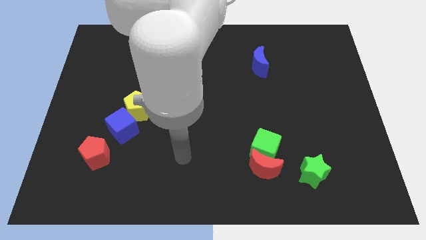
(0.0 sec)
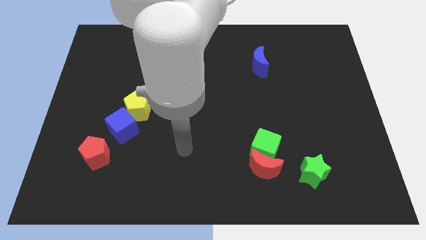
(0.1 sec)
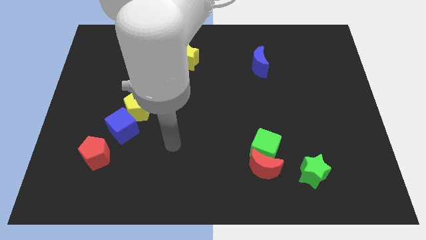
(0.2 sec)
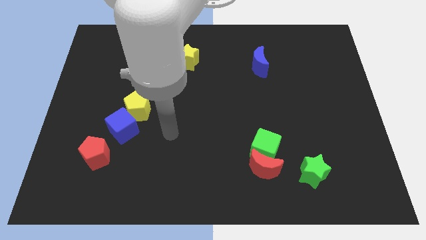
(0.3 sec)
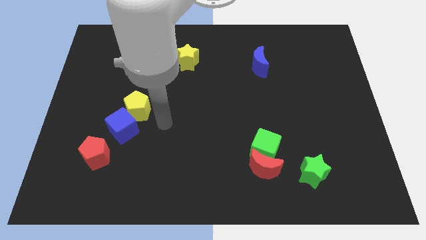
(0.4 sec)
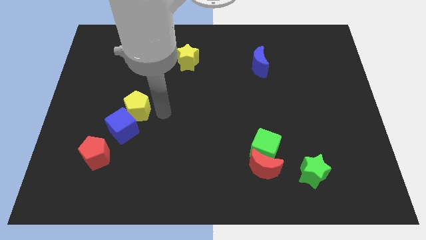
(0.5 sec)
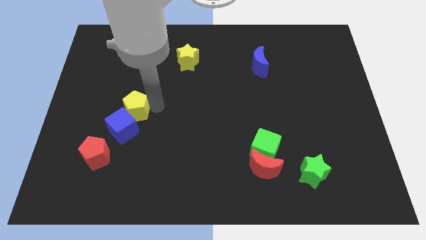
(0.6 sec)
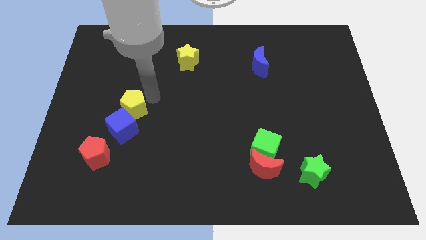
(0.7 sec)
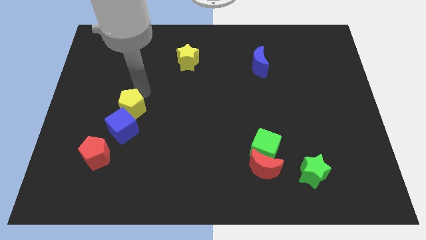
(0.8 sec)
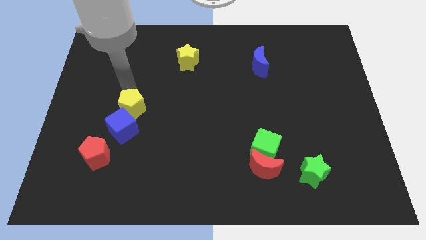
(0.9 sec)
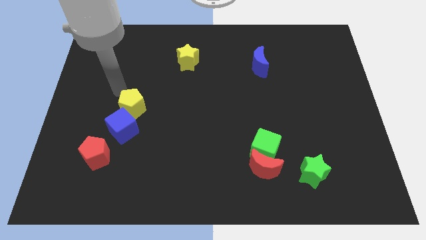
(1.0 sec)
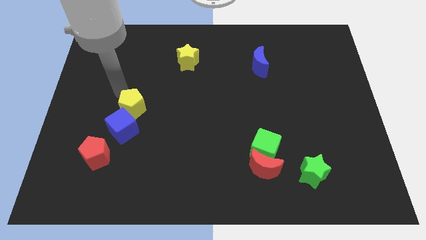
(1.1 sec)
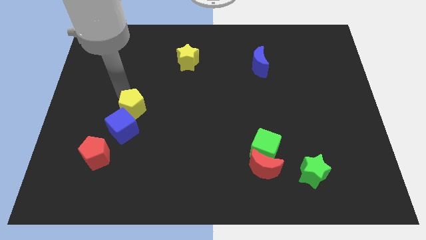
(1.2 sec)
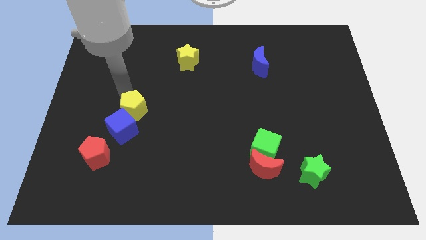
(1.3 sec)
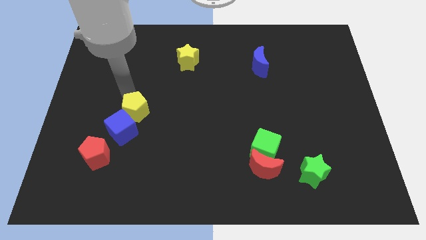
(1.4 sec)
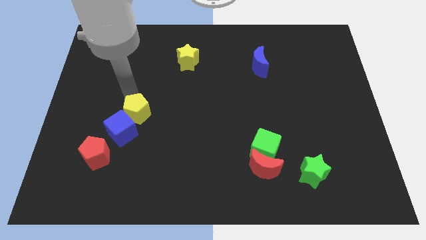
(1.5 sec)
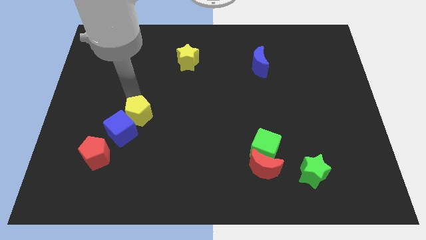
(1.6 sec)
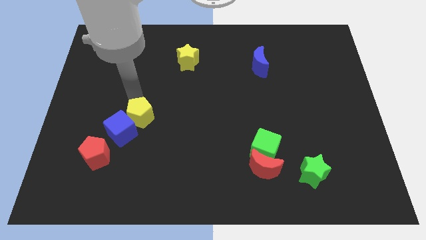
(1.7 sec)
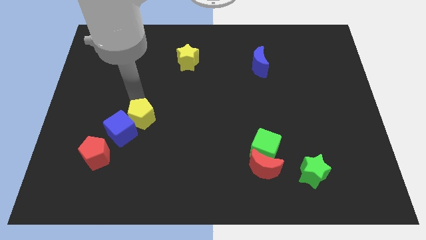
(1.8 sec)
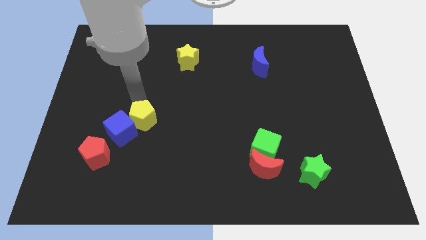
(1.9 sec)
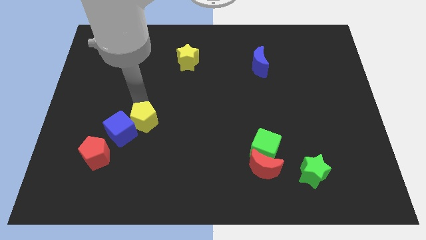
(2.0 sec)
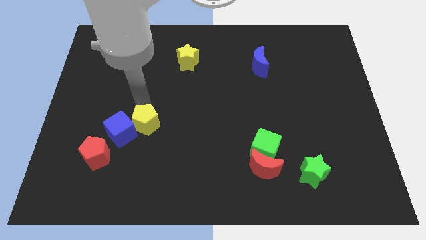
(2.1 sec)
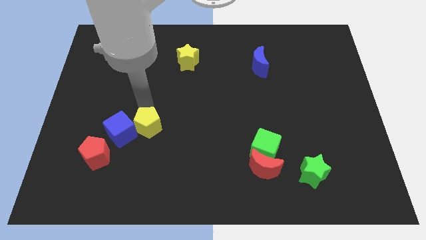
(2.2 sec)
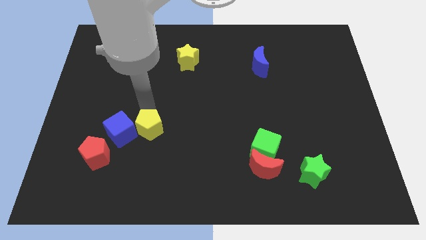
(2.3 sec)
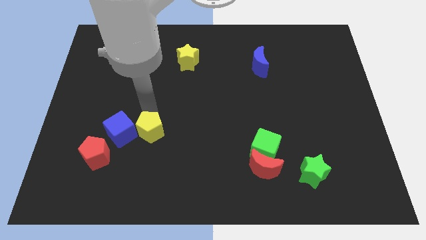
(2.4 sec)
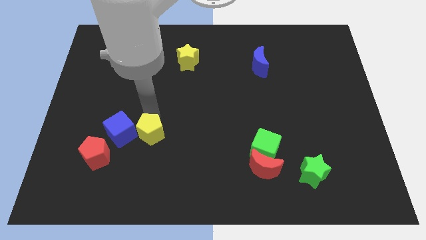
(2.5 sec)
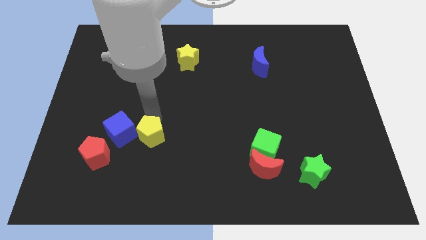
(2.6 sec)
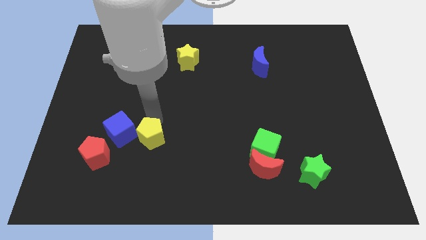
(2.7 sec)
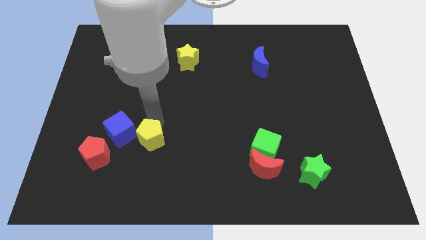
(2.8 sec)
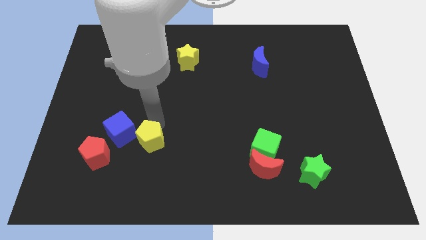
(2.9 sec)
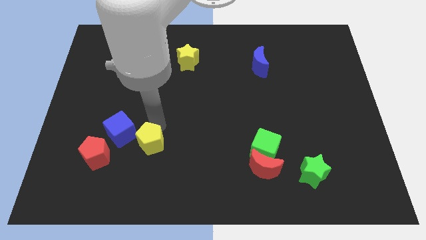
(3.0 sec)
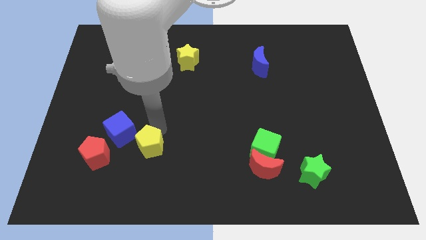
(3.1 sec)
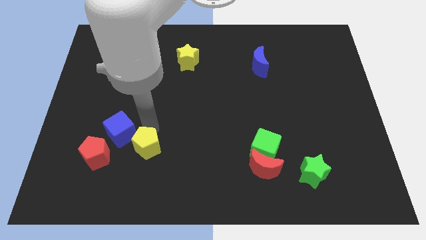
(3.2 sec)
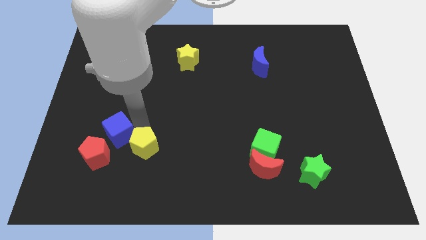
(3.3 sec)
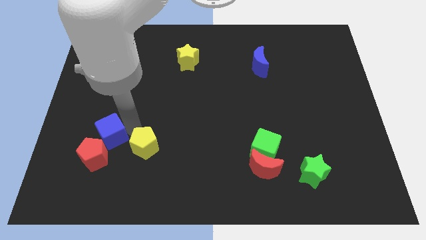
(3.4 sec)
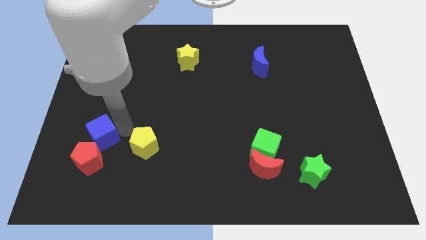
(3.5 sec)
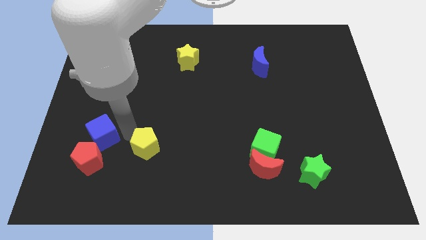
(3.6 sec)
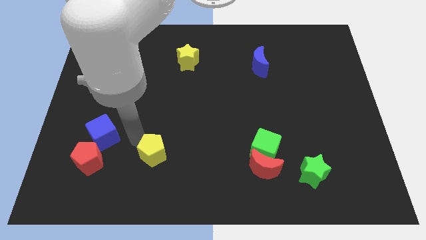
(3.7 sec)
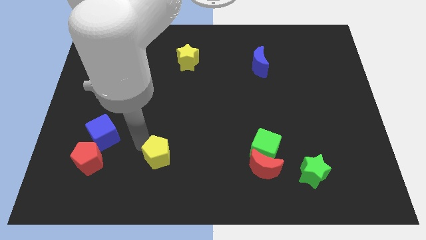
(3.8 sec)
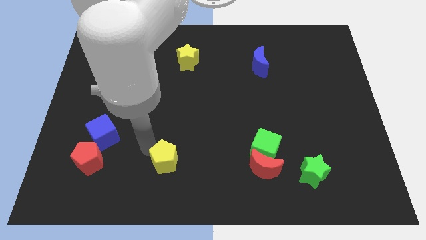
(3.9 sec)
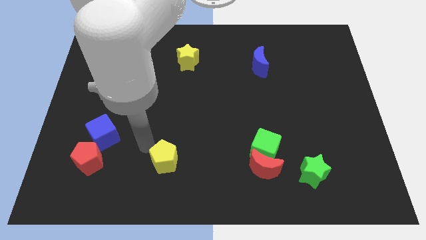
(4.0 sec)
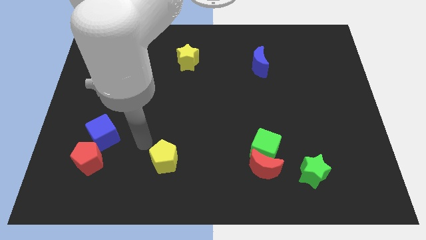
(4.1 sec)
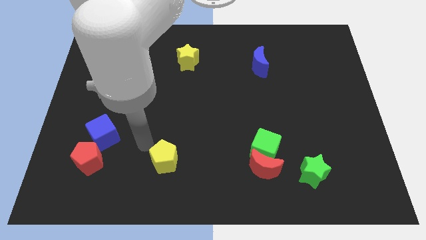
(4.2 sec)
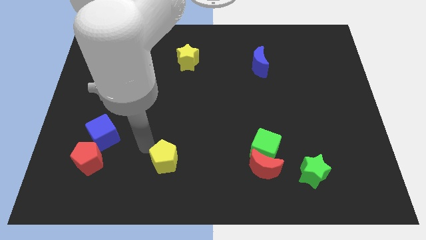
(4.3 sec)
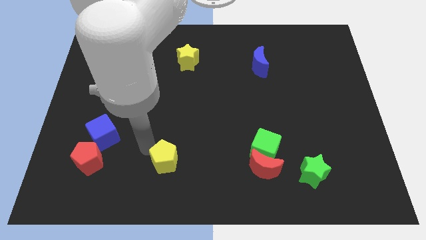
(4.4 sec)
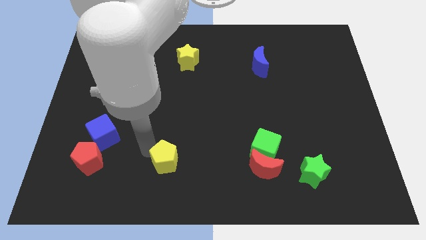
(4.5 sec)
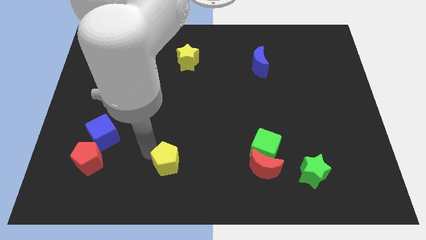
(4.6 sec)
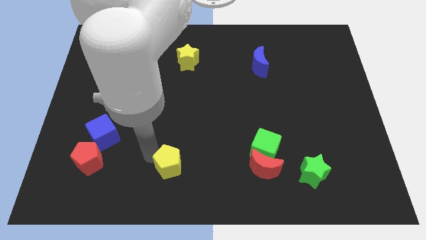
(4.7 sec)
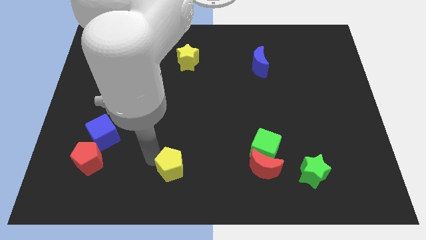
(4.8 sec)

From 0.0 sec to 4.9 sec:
slide the yellow pentagon to the bottom

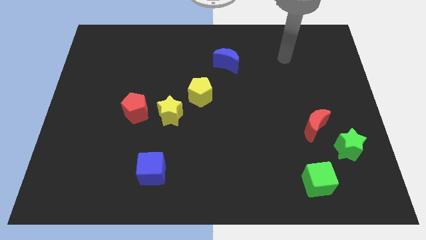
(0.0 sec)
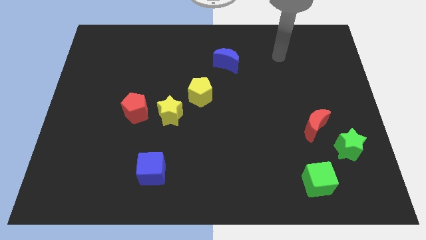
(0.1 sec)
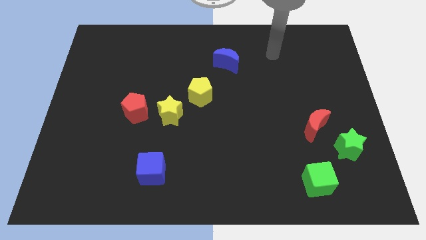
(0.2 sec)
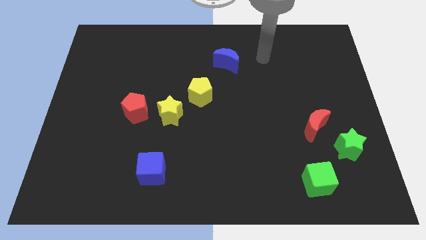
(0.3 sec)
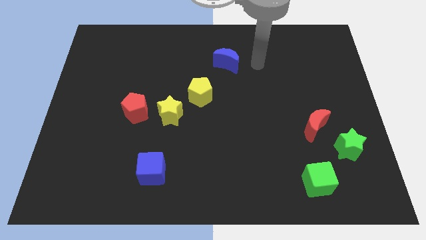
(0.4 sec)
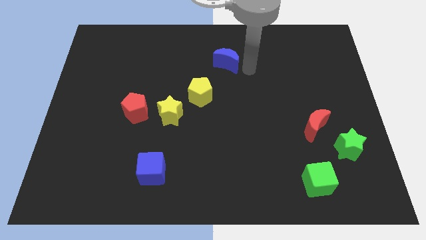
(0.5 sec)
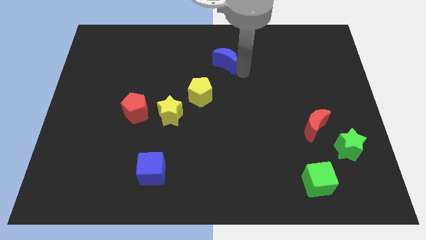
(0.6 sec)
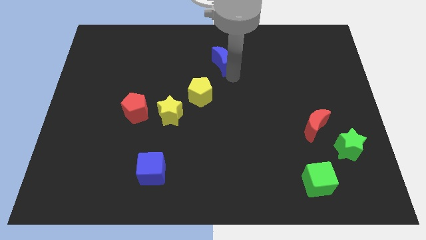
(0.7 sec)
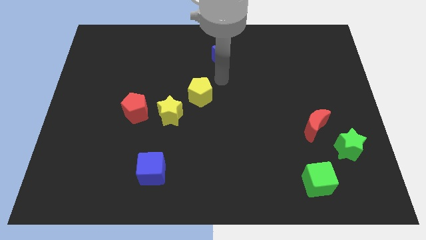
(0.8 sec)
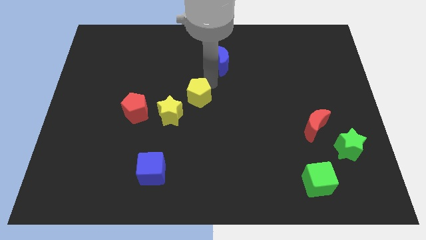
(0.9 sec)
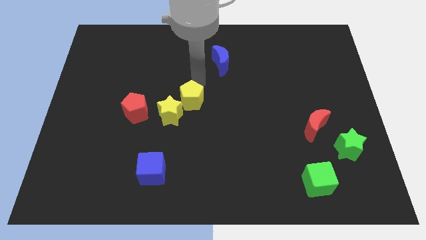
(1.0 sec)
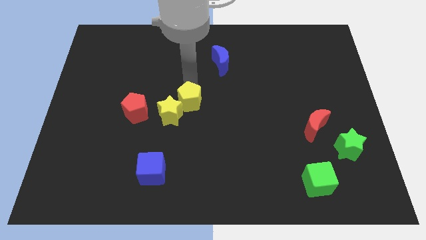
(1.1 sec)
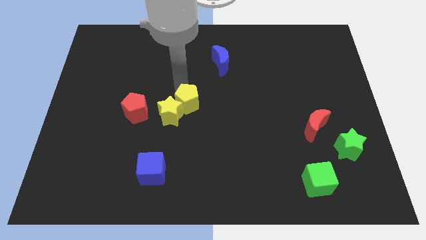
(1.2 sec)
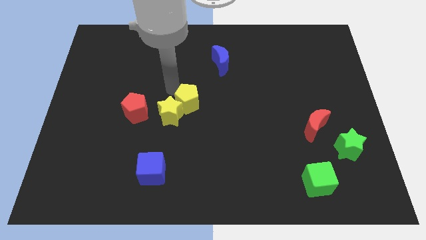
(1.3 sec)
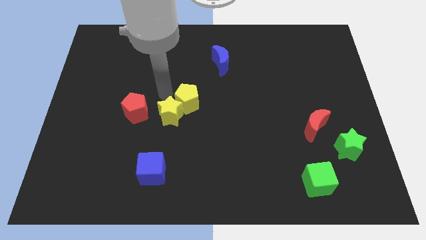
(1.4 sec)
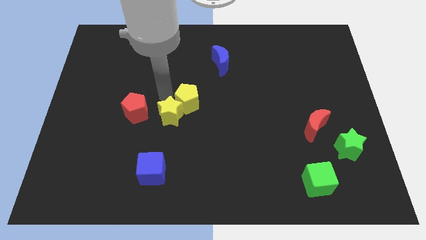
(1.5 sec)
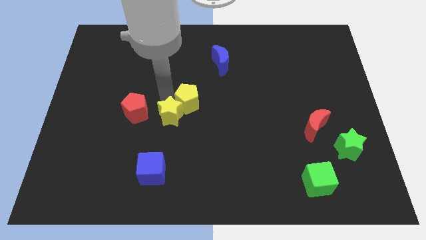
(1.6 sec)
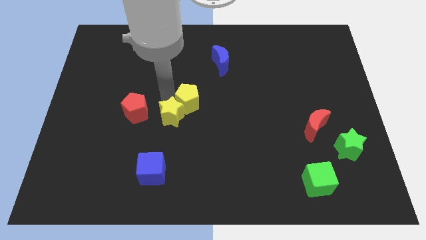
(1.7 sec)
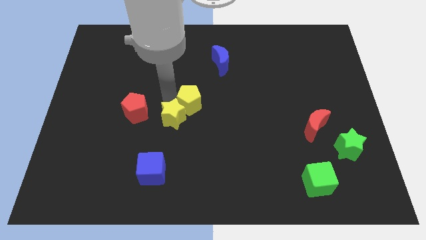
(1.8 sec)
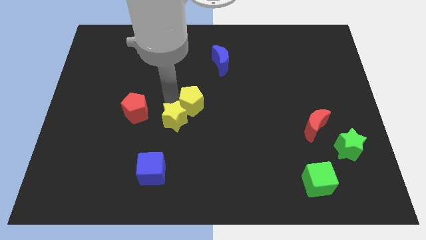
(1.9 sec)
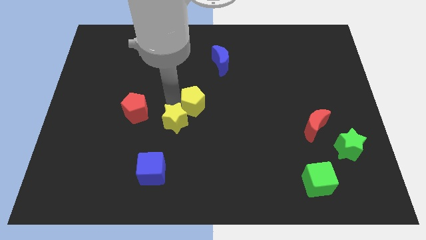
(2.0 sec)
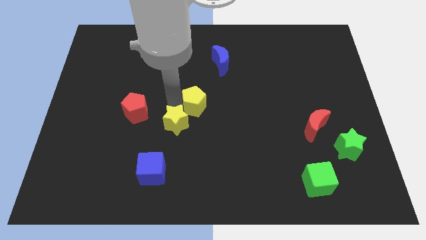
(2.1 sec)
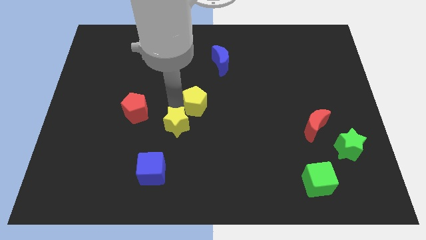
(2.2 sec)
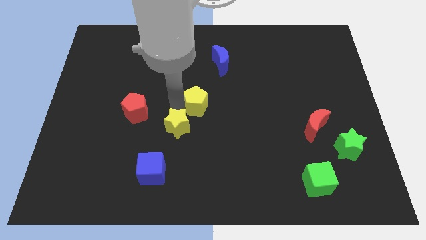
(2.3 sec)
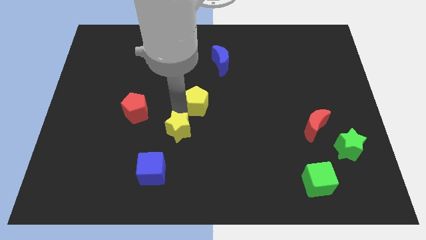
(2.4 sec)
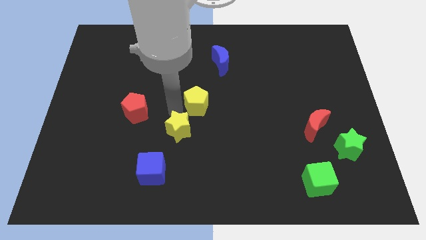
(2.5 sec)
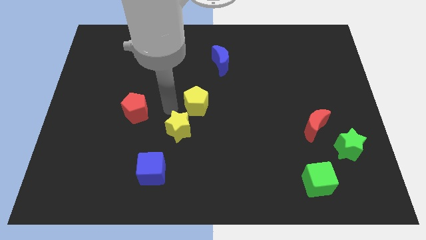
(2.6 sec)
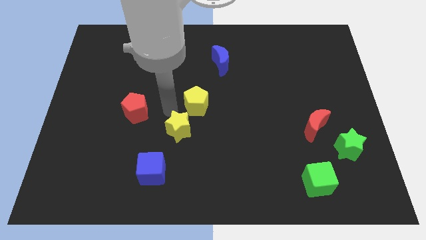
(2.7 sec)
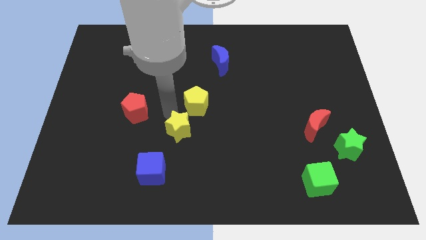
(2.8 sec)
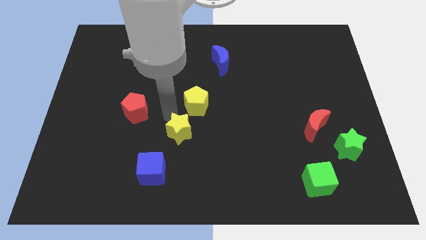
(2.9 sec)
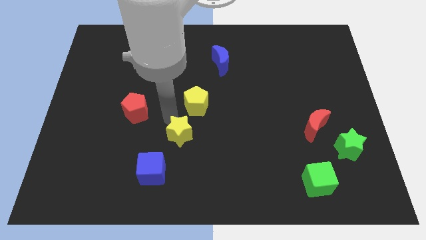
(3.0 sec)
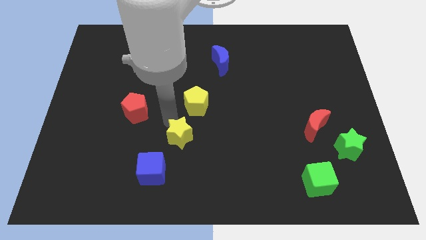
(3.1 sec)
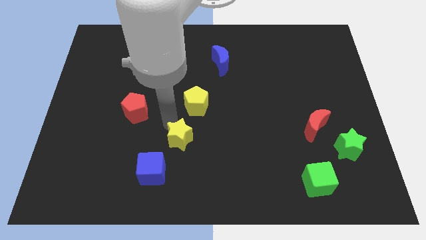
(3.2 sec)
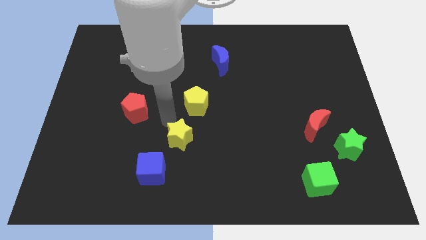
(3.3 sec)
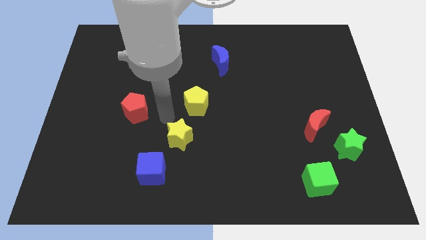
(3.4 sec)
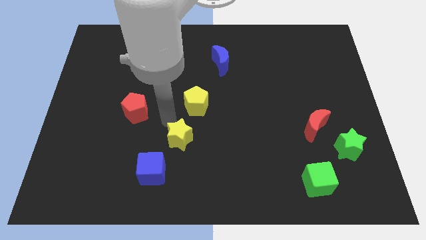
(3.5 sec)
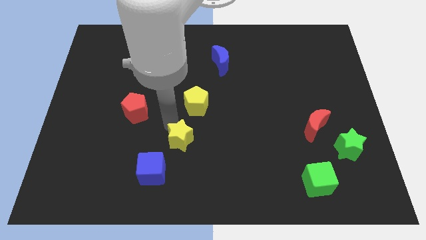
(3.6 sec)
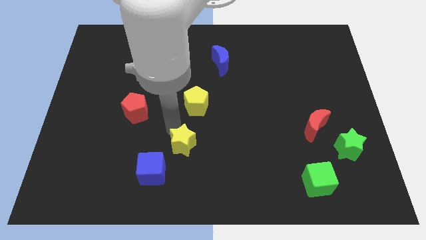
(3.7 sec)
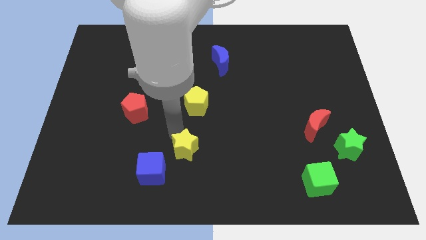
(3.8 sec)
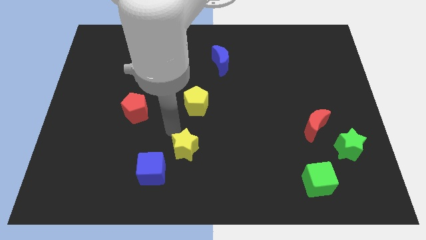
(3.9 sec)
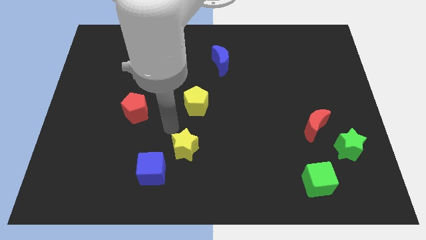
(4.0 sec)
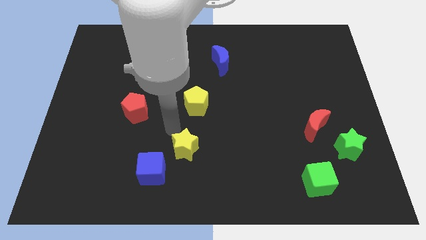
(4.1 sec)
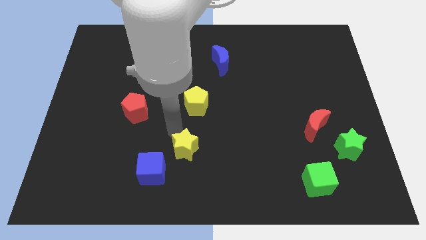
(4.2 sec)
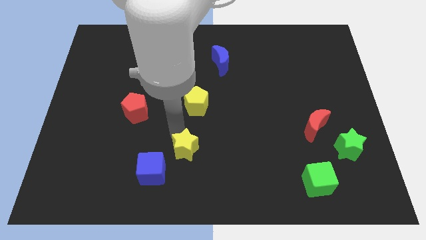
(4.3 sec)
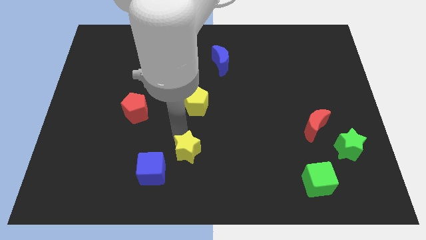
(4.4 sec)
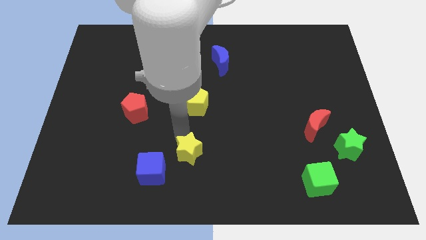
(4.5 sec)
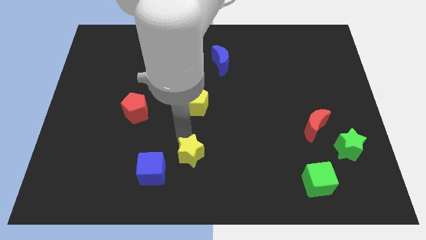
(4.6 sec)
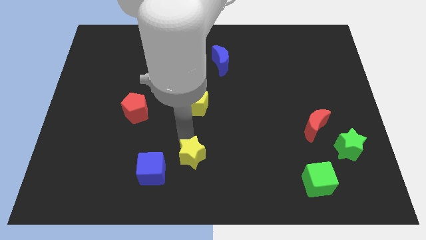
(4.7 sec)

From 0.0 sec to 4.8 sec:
push the yellow star to the bottom side
